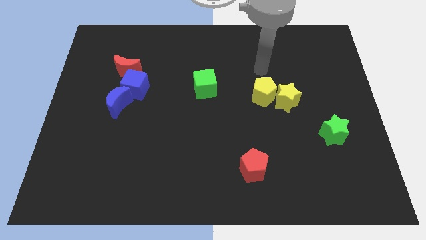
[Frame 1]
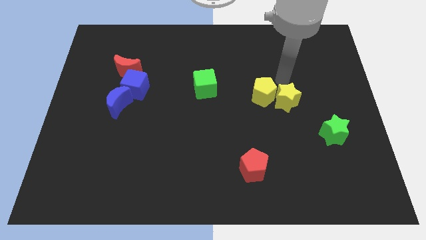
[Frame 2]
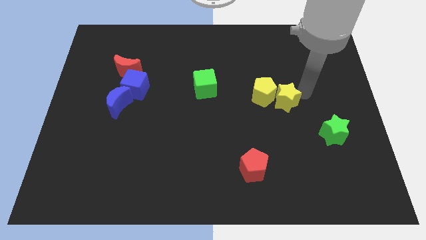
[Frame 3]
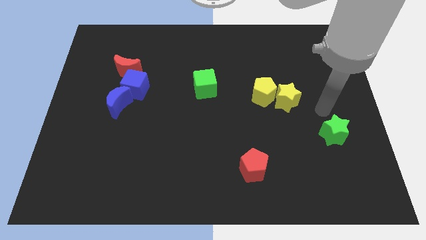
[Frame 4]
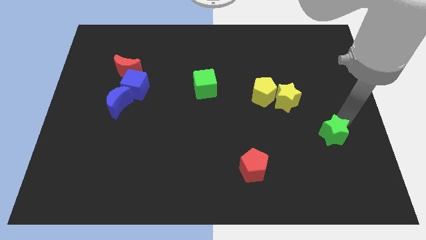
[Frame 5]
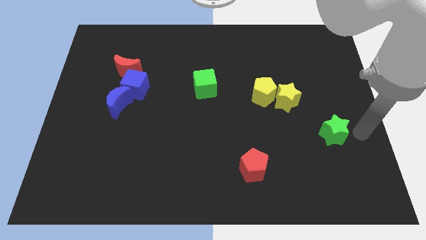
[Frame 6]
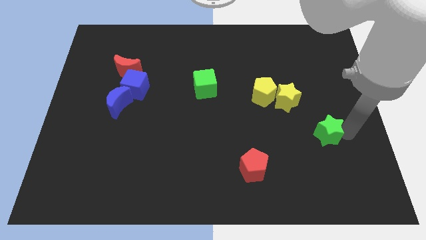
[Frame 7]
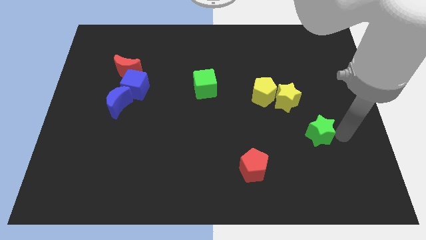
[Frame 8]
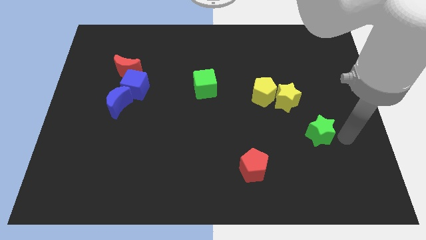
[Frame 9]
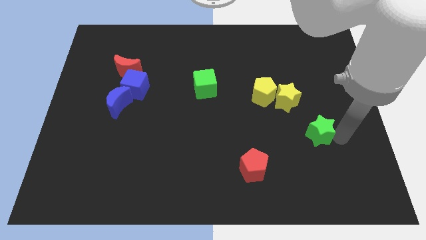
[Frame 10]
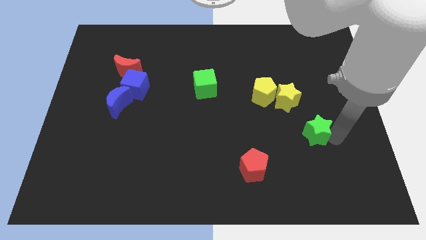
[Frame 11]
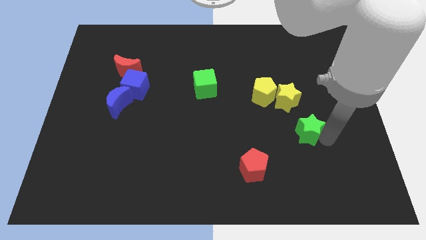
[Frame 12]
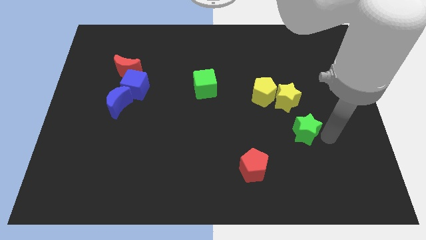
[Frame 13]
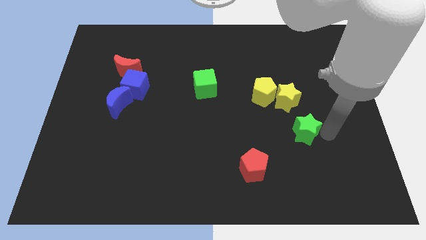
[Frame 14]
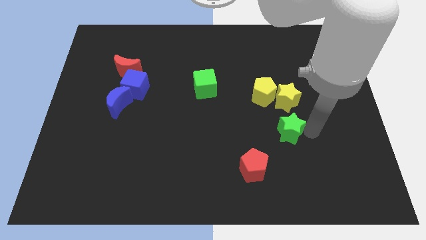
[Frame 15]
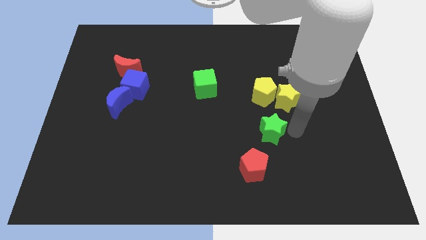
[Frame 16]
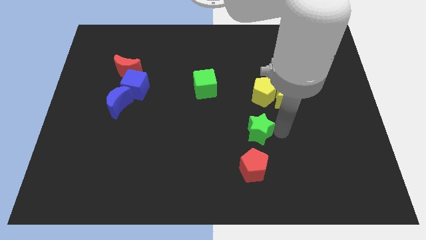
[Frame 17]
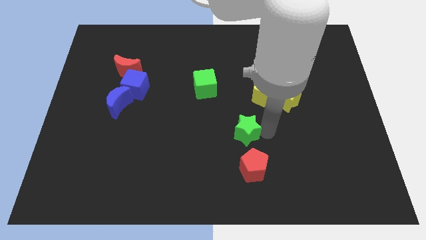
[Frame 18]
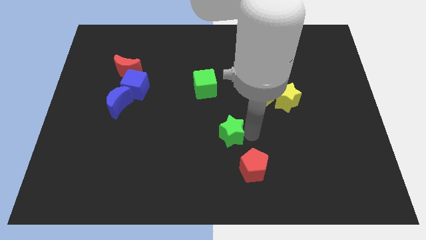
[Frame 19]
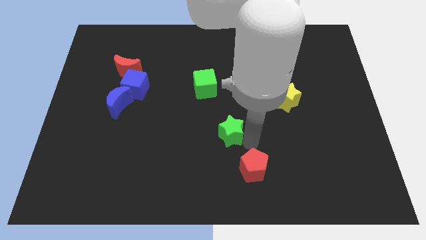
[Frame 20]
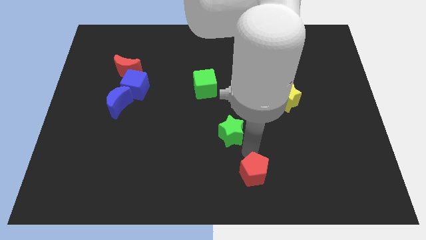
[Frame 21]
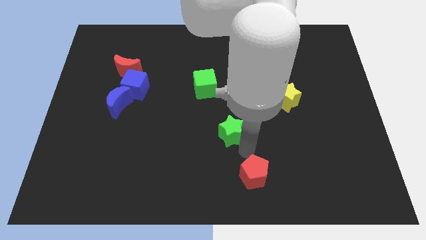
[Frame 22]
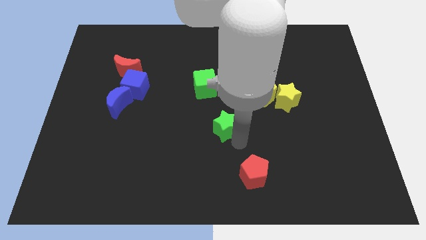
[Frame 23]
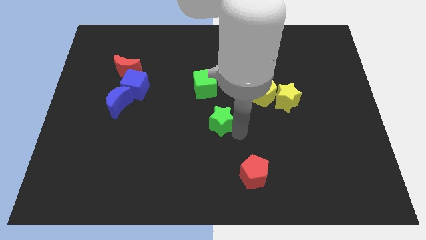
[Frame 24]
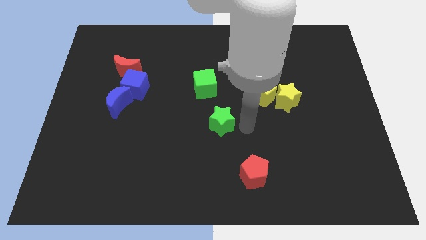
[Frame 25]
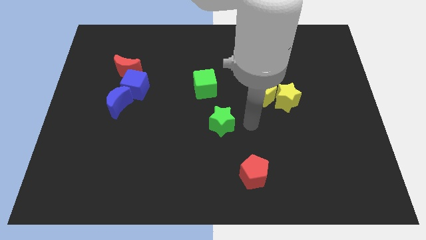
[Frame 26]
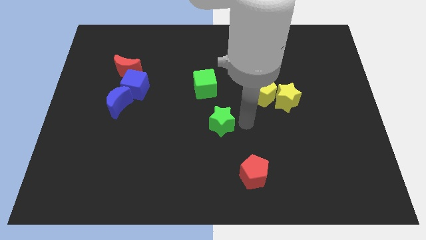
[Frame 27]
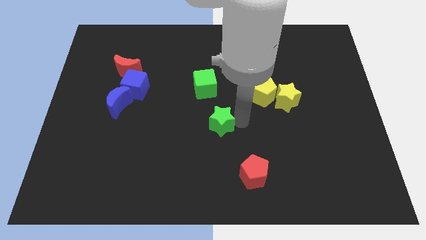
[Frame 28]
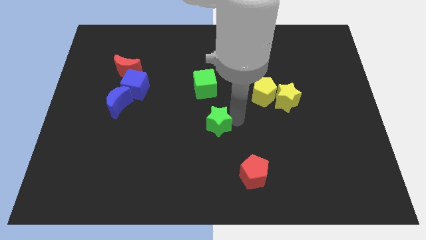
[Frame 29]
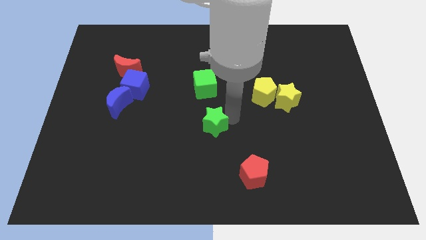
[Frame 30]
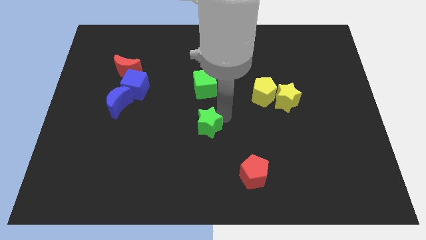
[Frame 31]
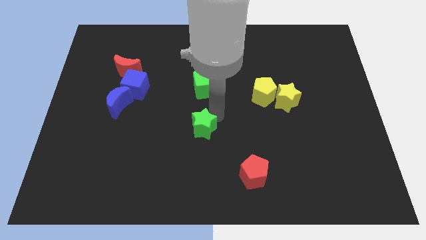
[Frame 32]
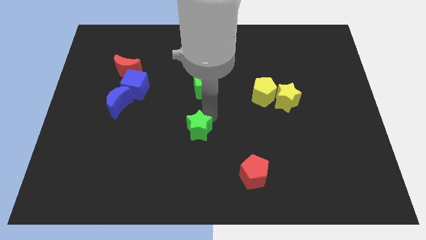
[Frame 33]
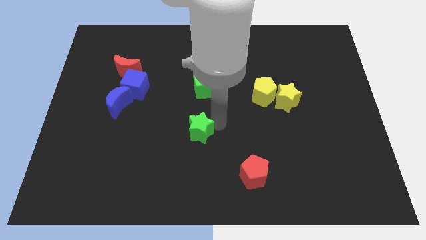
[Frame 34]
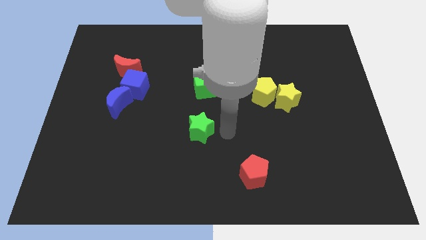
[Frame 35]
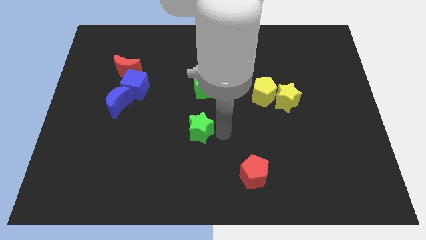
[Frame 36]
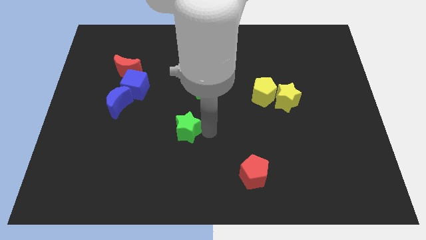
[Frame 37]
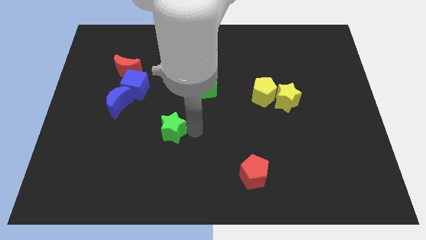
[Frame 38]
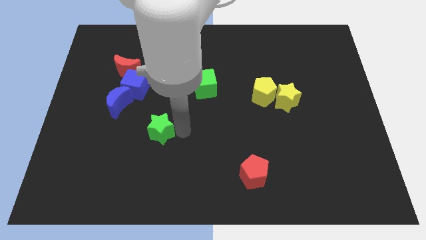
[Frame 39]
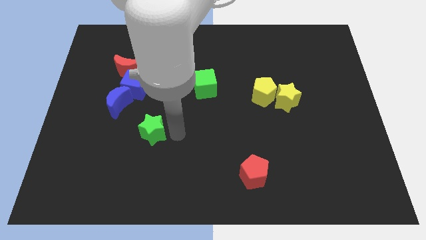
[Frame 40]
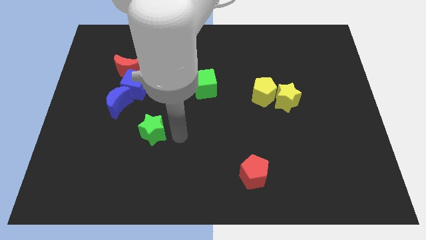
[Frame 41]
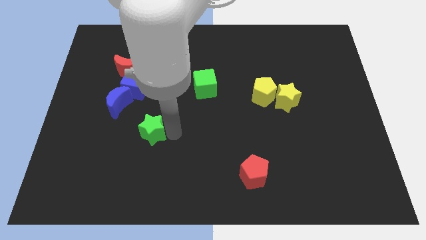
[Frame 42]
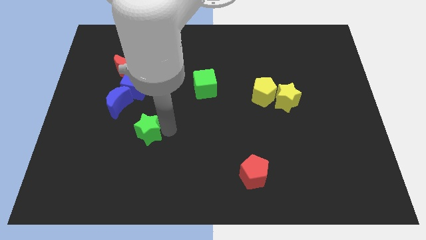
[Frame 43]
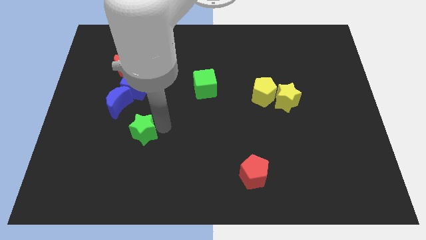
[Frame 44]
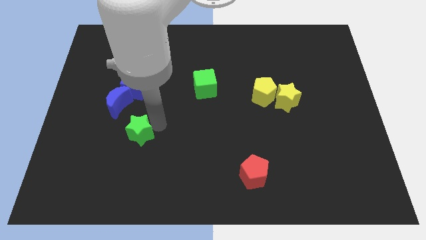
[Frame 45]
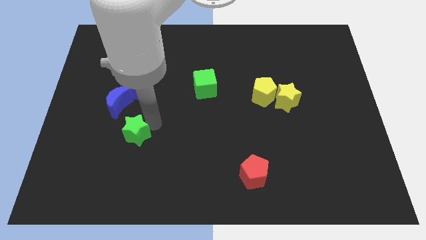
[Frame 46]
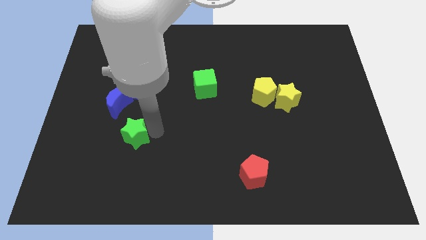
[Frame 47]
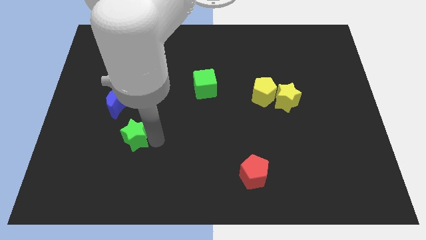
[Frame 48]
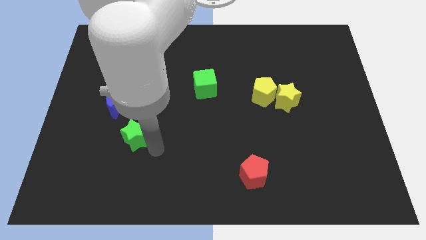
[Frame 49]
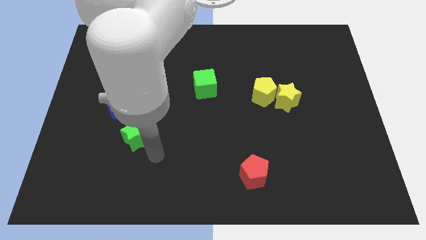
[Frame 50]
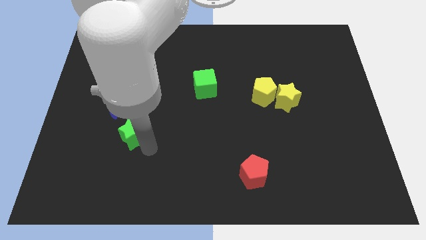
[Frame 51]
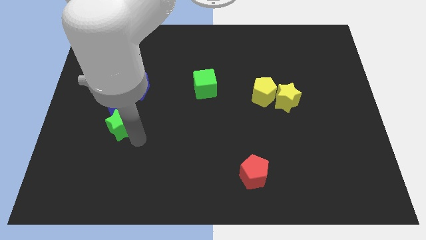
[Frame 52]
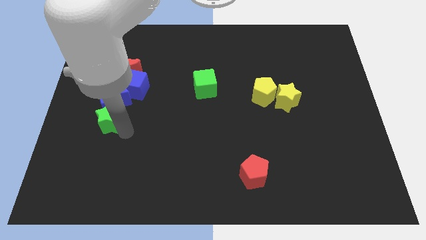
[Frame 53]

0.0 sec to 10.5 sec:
put the green star to the bottom left of the blue cube

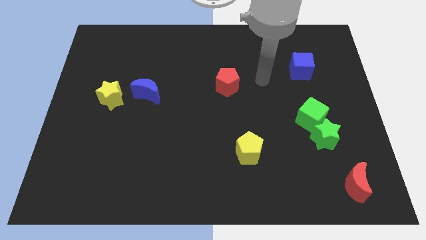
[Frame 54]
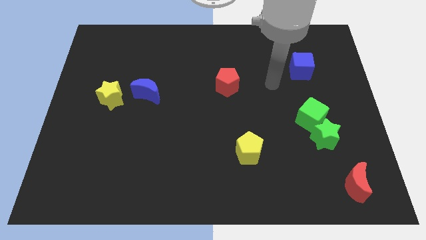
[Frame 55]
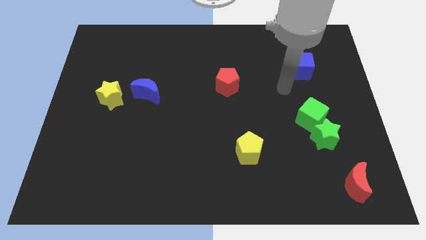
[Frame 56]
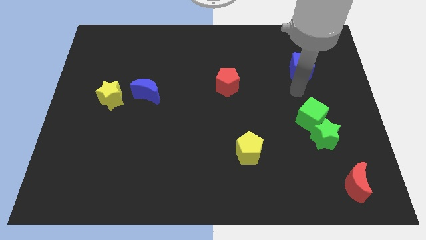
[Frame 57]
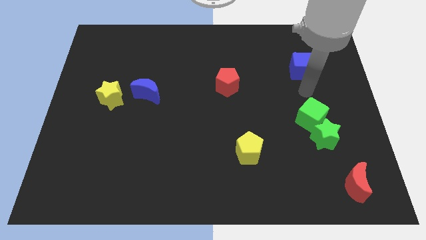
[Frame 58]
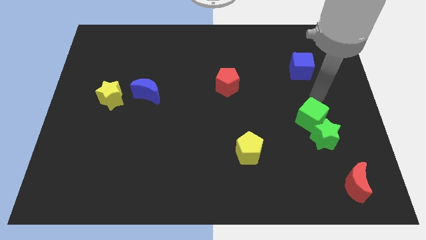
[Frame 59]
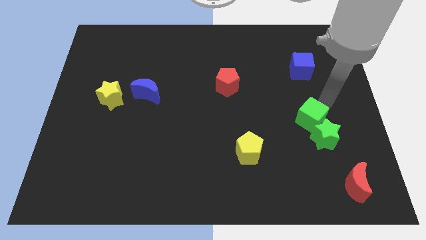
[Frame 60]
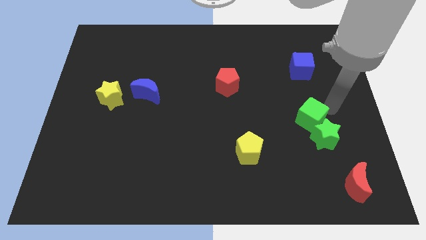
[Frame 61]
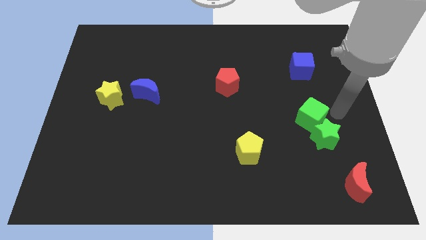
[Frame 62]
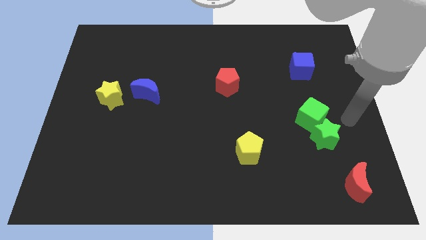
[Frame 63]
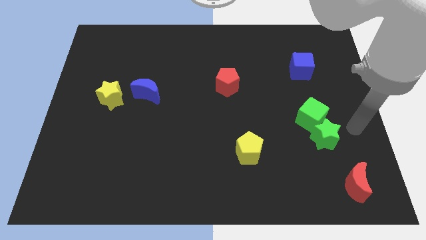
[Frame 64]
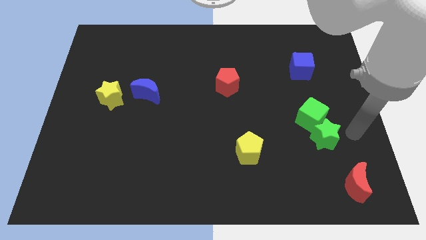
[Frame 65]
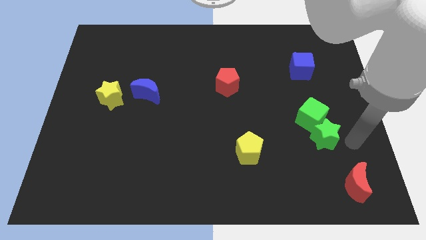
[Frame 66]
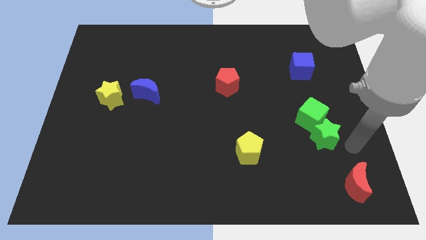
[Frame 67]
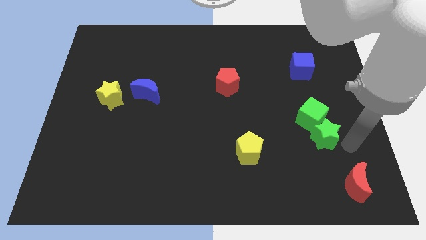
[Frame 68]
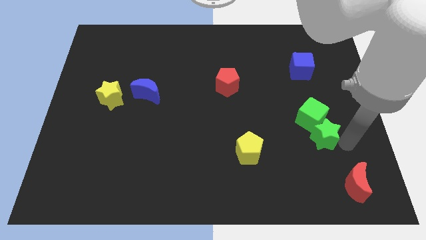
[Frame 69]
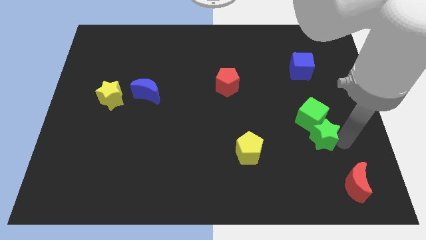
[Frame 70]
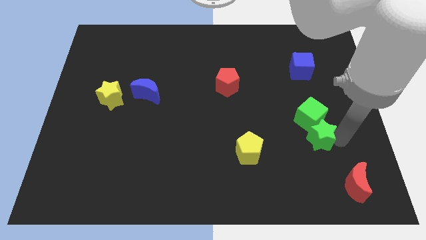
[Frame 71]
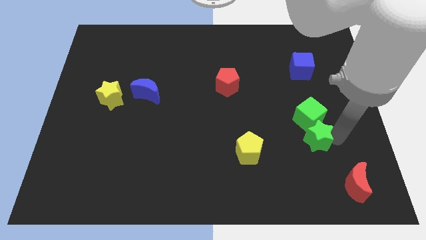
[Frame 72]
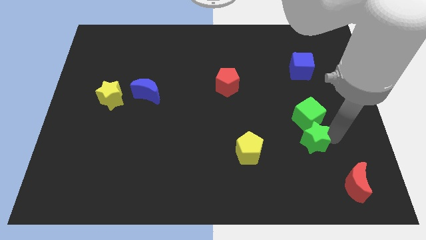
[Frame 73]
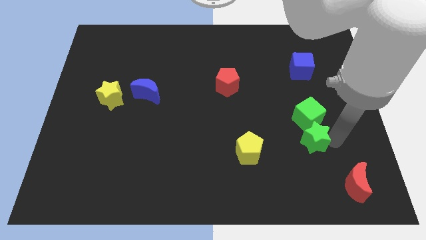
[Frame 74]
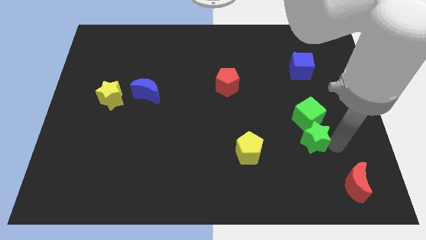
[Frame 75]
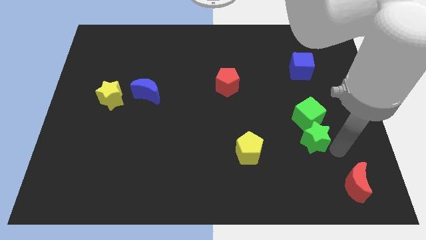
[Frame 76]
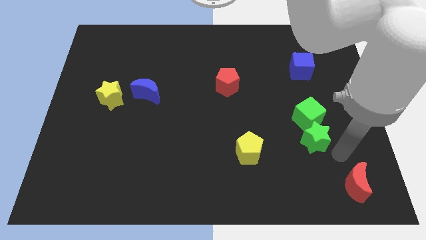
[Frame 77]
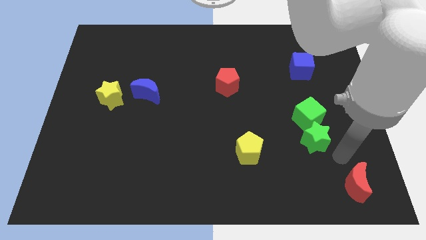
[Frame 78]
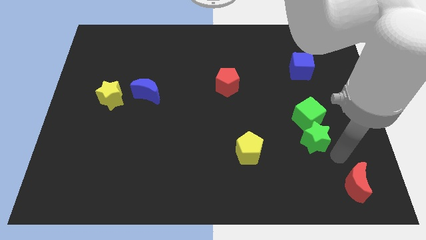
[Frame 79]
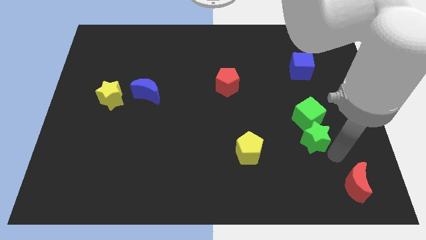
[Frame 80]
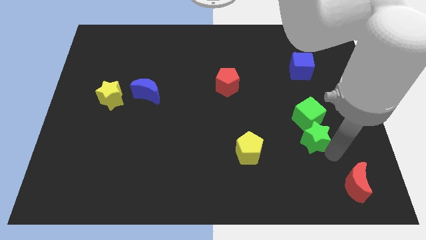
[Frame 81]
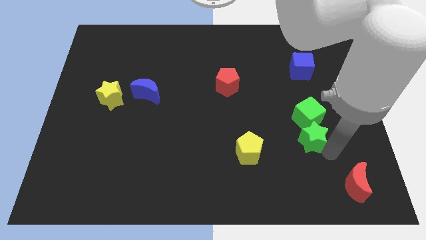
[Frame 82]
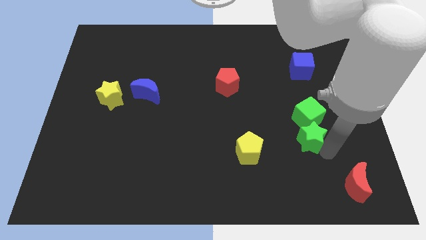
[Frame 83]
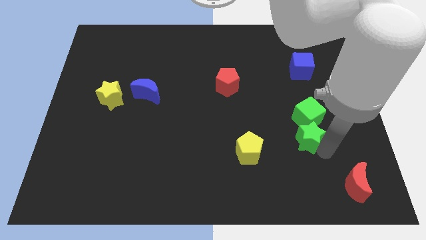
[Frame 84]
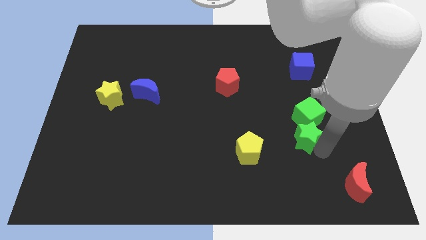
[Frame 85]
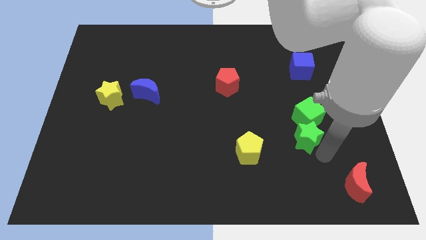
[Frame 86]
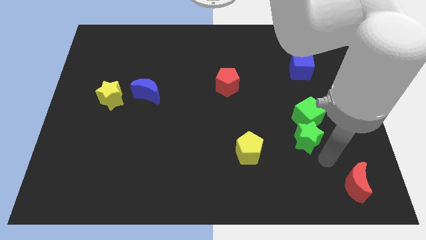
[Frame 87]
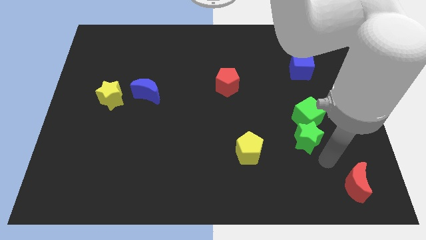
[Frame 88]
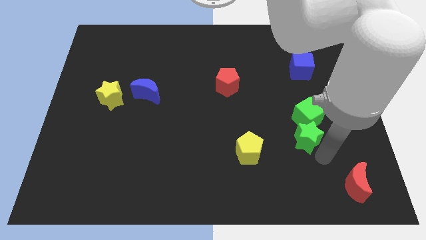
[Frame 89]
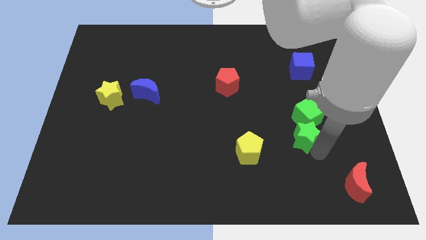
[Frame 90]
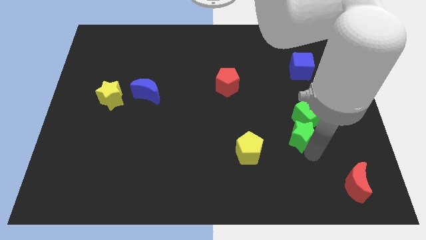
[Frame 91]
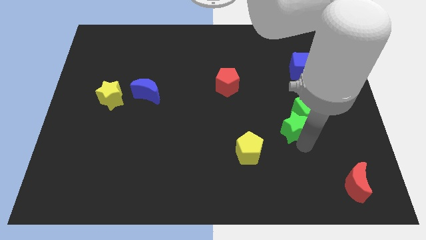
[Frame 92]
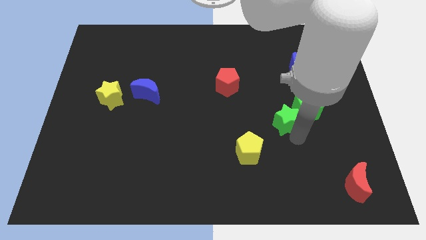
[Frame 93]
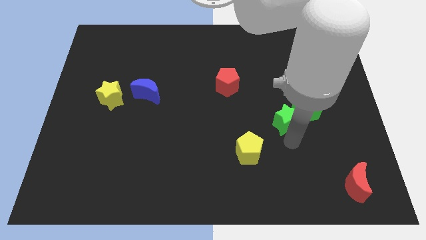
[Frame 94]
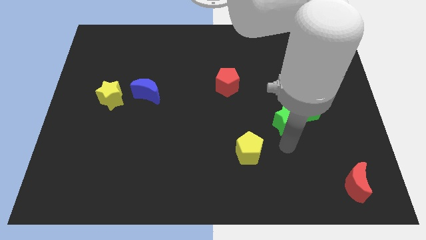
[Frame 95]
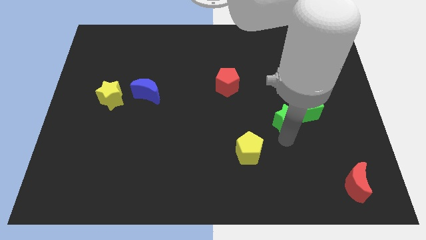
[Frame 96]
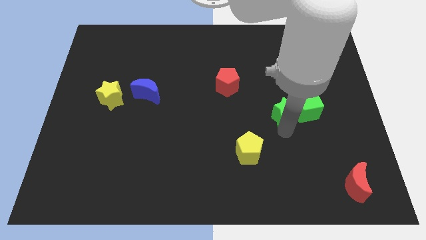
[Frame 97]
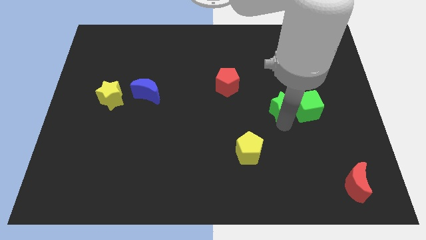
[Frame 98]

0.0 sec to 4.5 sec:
slide the green star to the top left of the green cube
